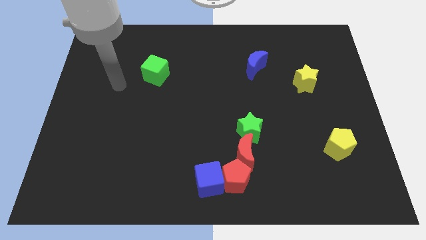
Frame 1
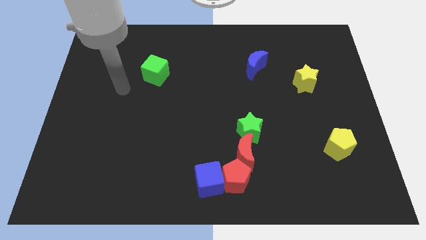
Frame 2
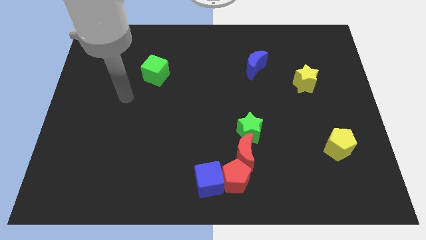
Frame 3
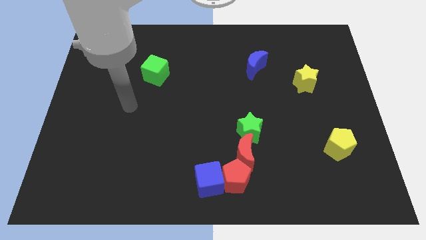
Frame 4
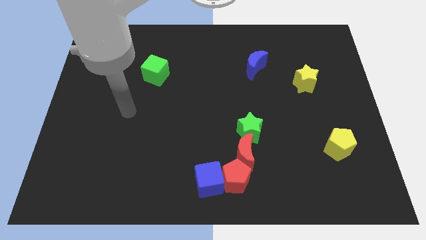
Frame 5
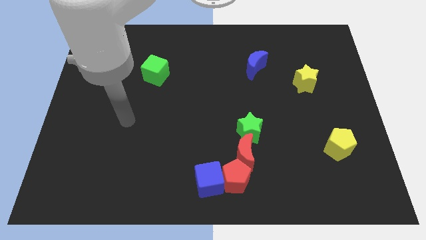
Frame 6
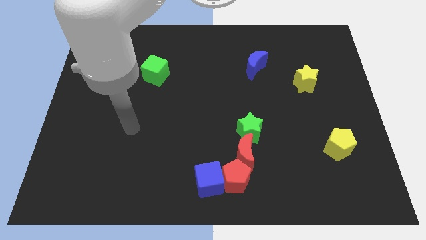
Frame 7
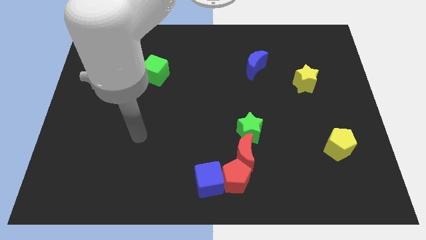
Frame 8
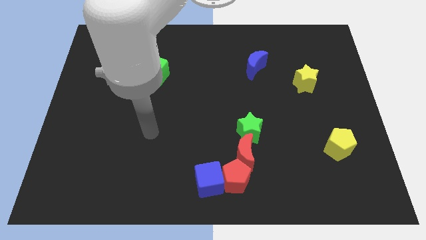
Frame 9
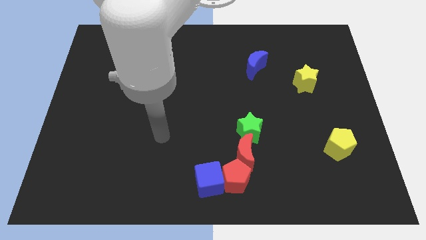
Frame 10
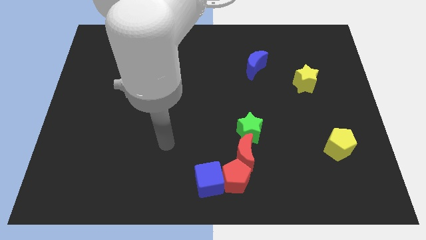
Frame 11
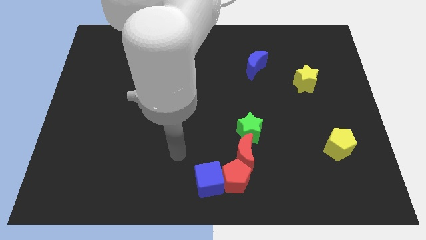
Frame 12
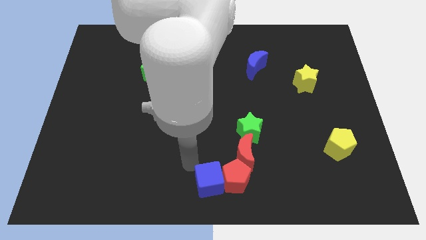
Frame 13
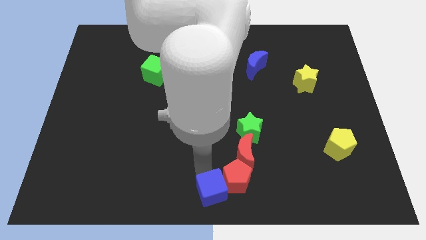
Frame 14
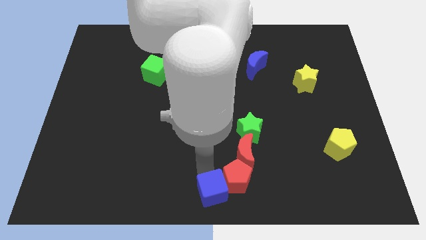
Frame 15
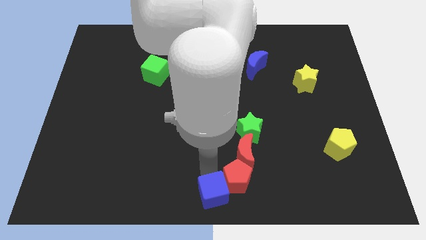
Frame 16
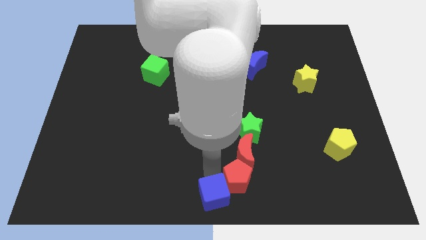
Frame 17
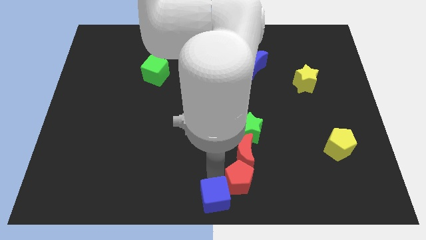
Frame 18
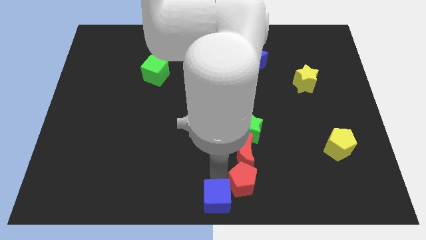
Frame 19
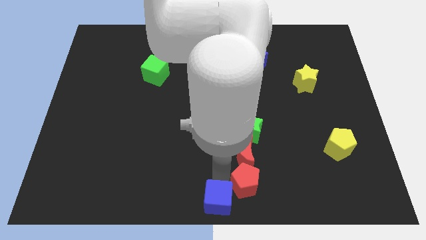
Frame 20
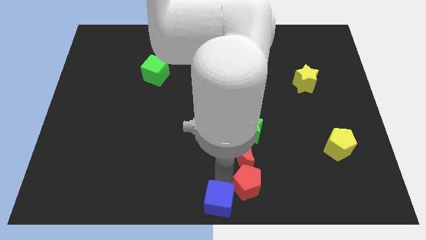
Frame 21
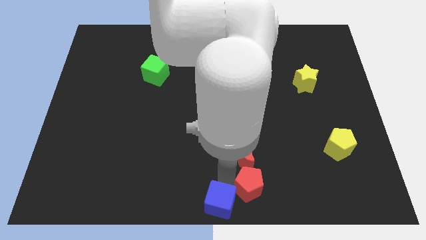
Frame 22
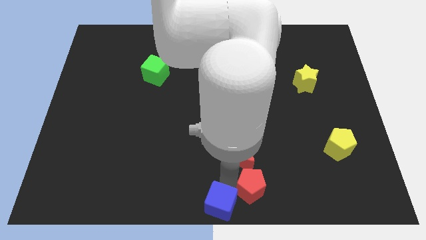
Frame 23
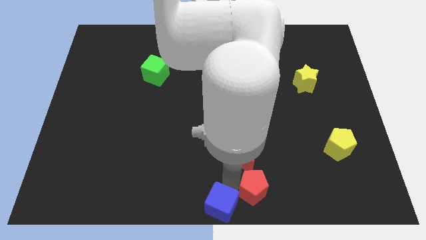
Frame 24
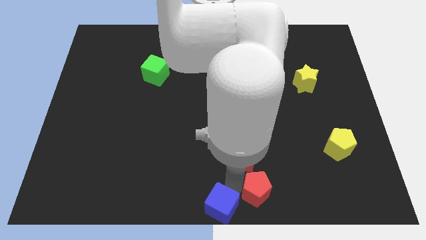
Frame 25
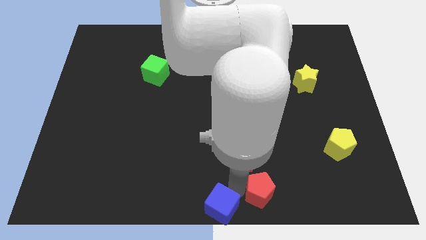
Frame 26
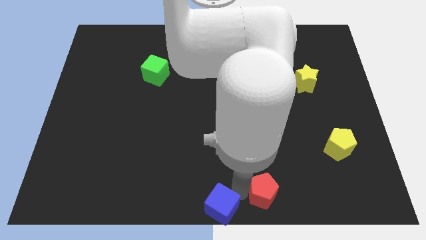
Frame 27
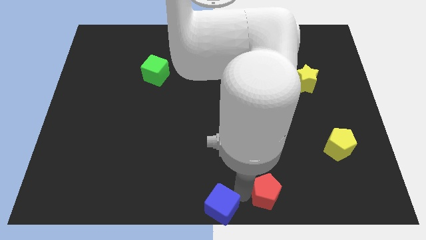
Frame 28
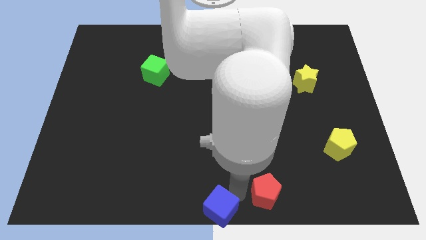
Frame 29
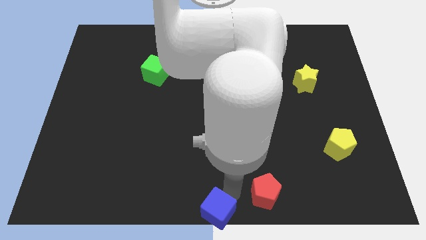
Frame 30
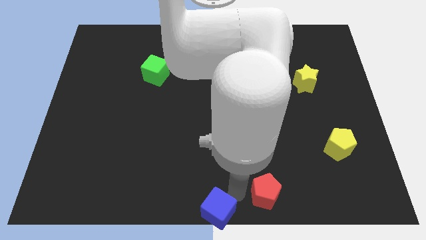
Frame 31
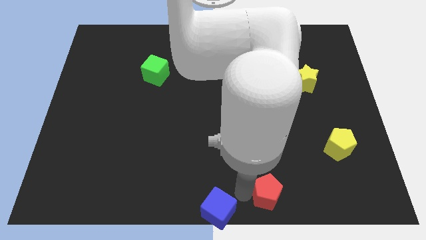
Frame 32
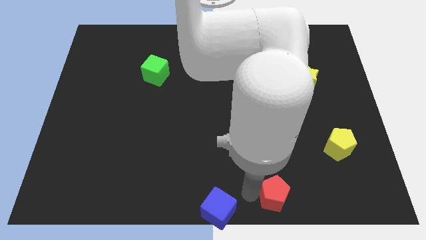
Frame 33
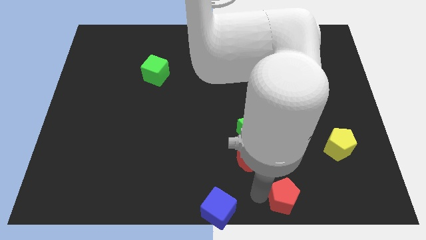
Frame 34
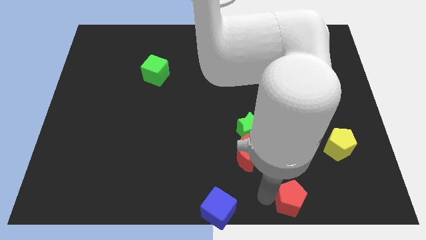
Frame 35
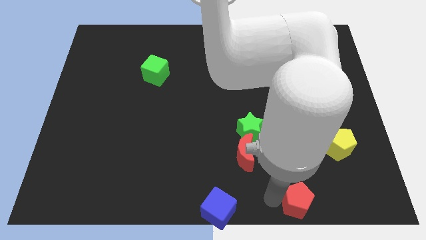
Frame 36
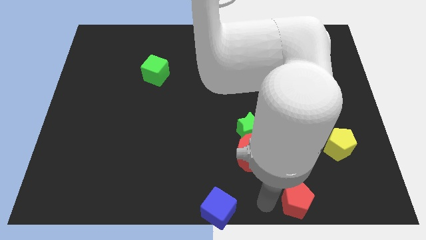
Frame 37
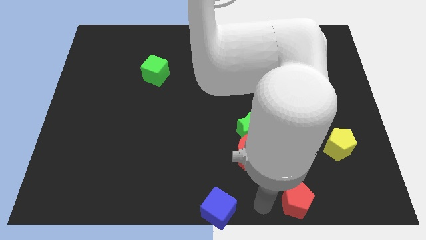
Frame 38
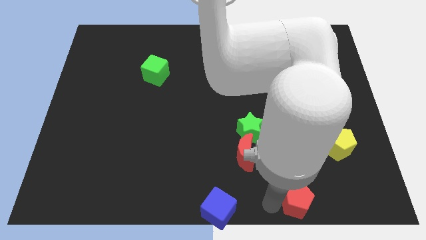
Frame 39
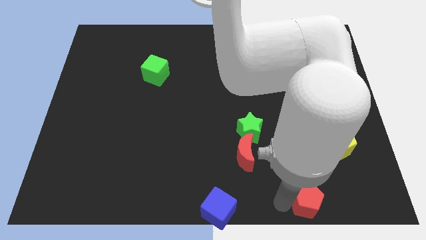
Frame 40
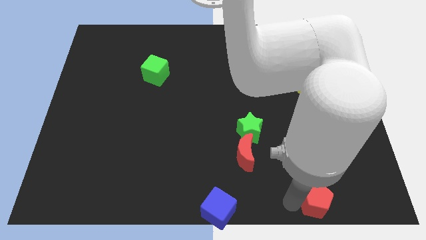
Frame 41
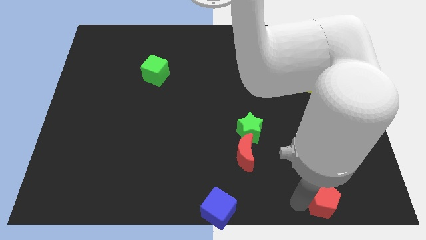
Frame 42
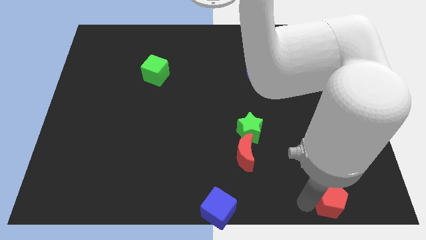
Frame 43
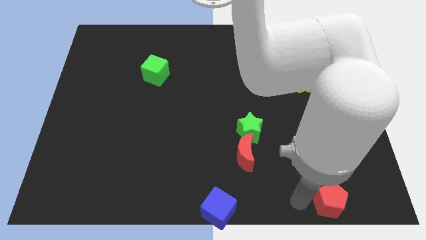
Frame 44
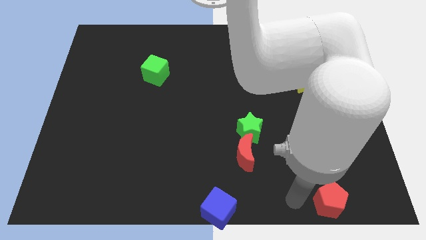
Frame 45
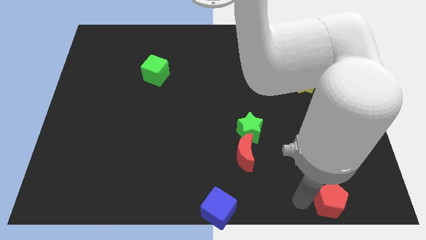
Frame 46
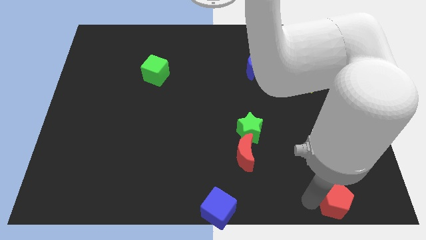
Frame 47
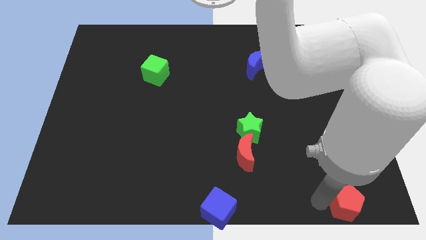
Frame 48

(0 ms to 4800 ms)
push the red pentagon to the lower right corner

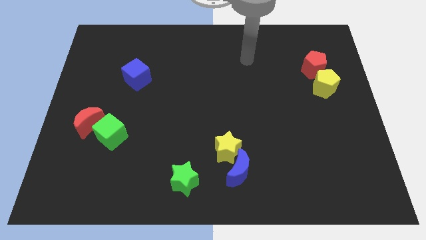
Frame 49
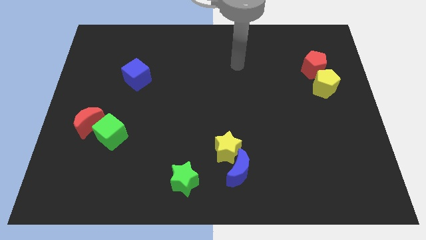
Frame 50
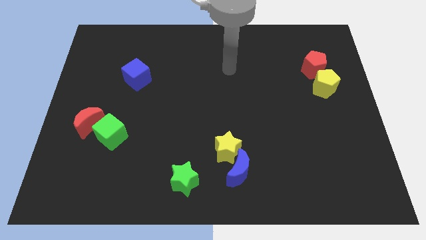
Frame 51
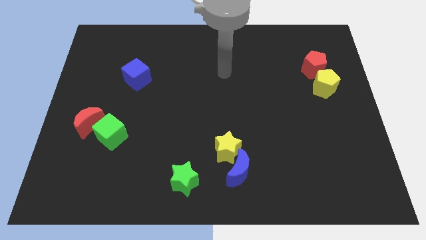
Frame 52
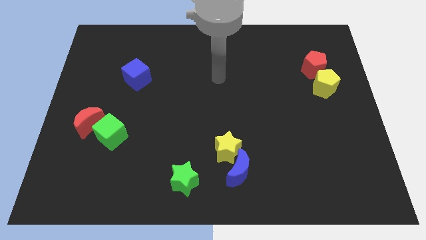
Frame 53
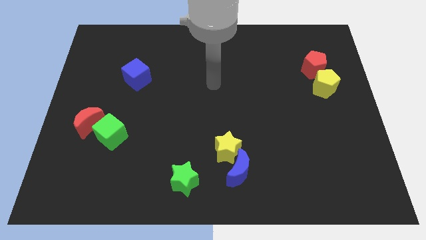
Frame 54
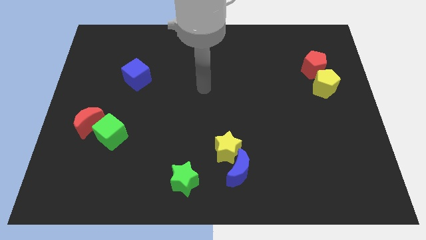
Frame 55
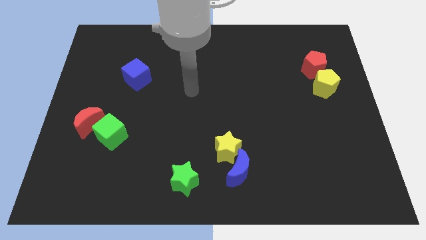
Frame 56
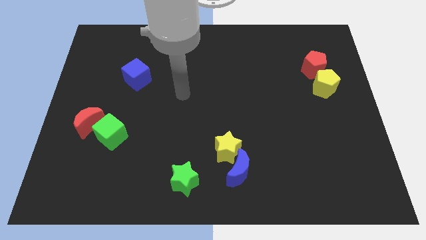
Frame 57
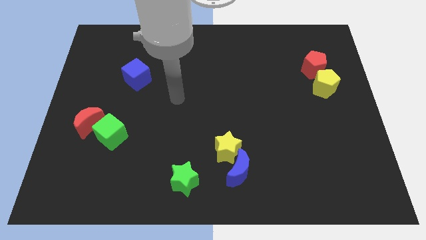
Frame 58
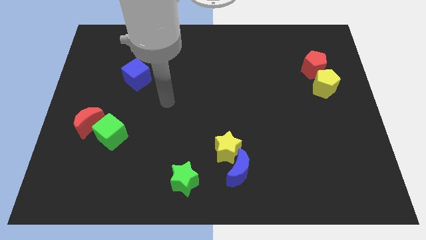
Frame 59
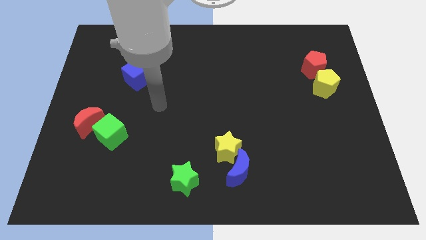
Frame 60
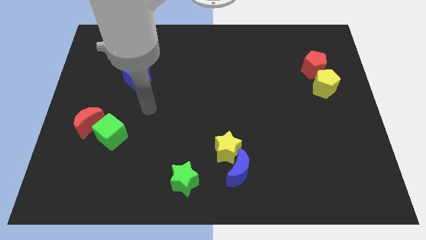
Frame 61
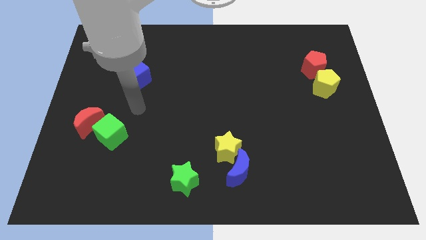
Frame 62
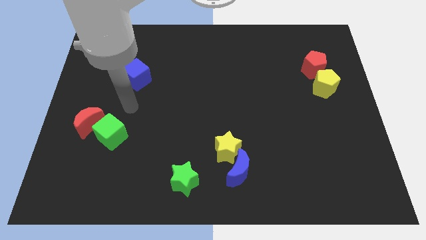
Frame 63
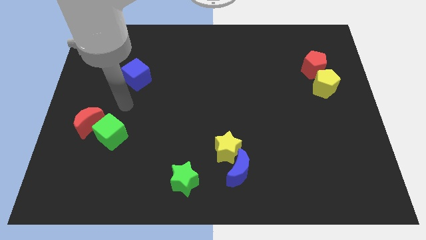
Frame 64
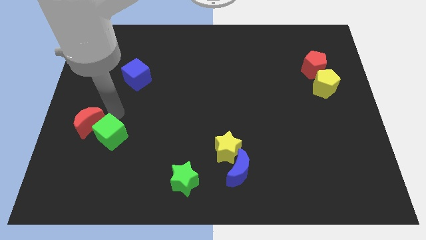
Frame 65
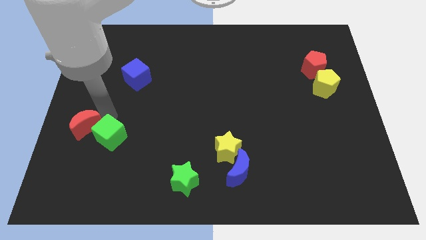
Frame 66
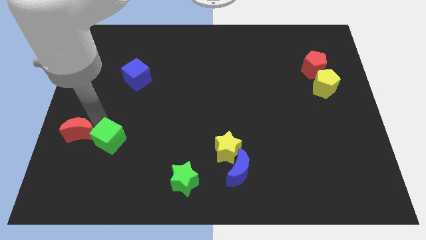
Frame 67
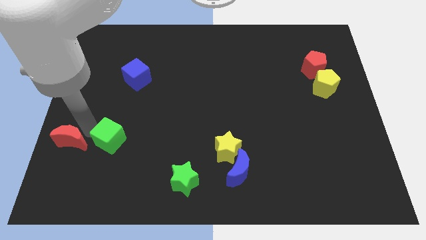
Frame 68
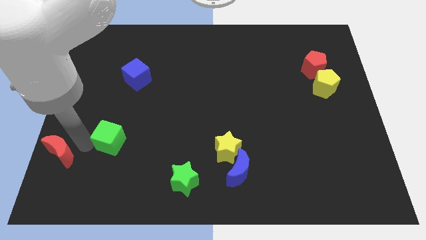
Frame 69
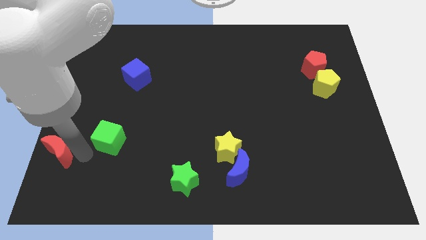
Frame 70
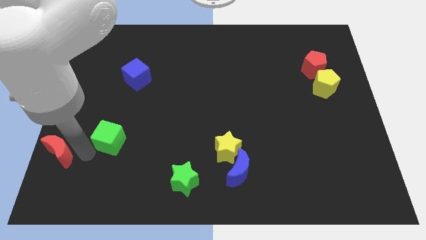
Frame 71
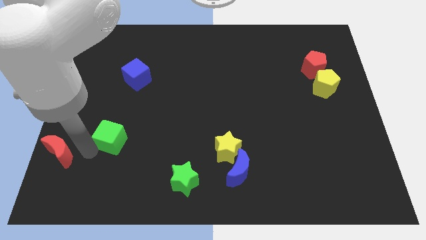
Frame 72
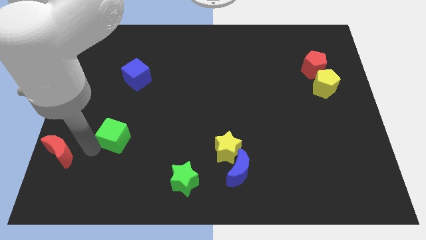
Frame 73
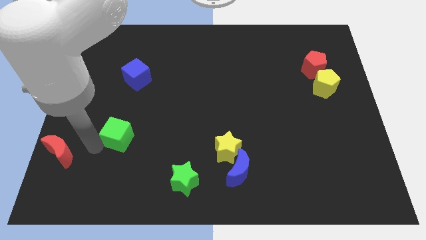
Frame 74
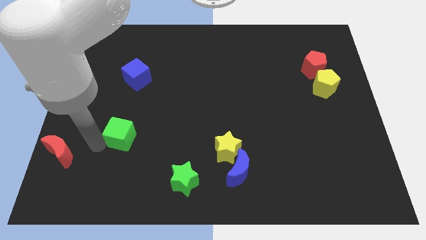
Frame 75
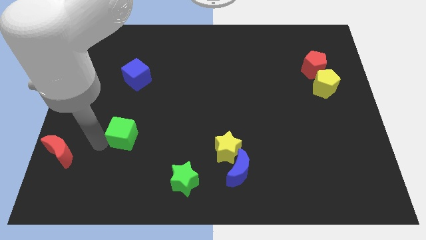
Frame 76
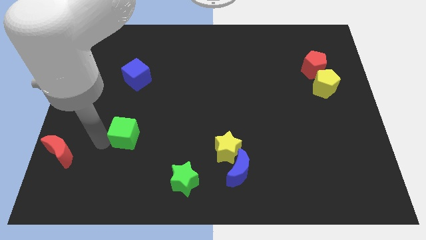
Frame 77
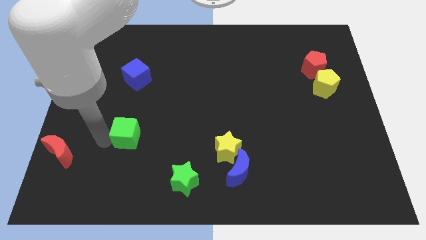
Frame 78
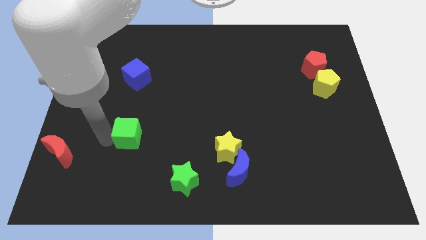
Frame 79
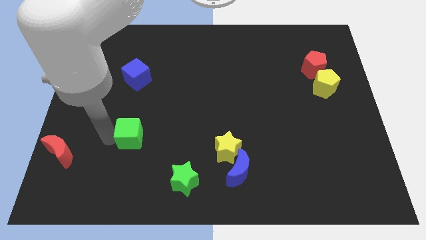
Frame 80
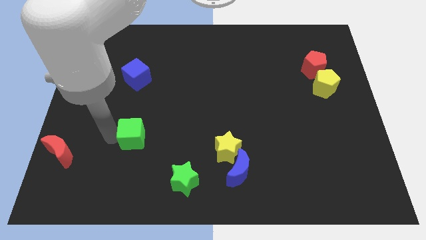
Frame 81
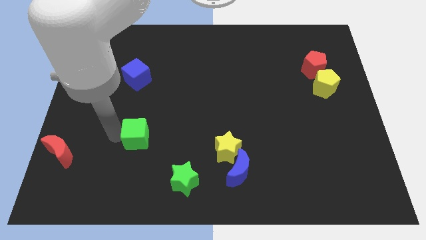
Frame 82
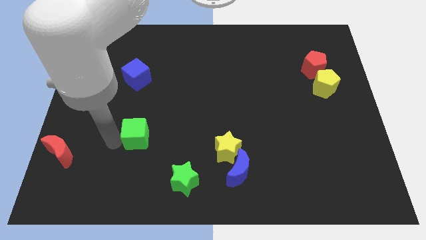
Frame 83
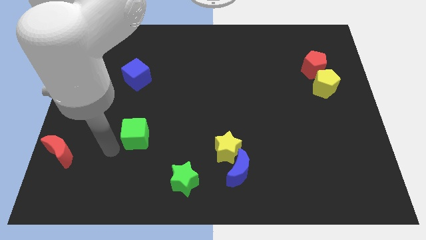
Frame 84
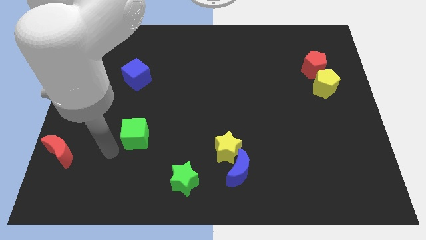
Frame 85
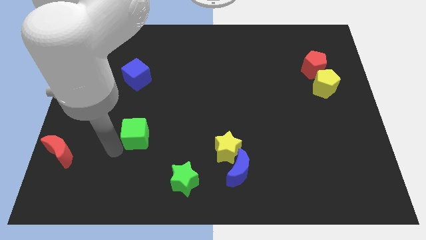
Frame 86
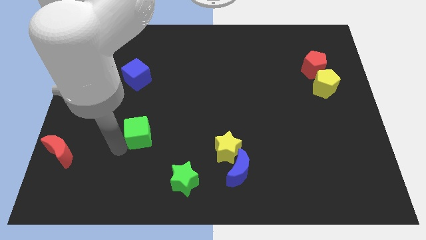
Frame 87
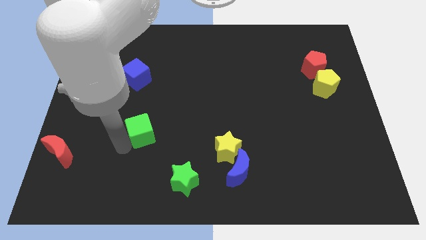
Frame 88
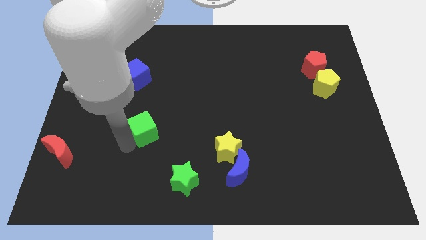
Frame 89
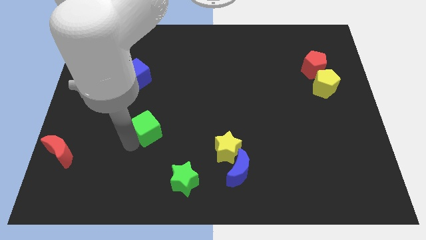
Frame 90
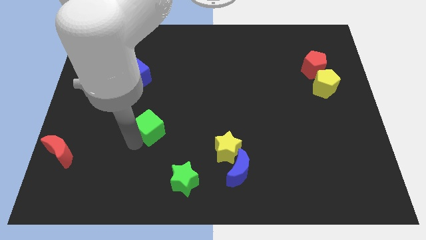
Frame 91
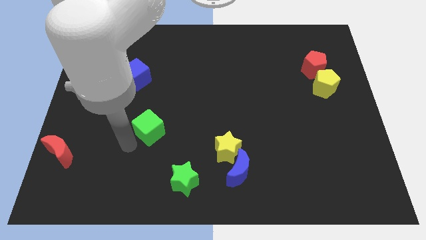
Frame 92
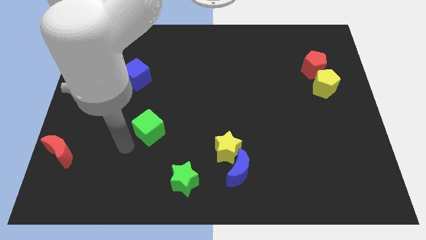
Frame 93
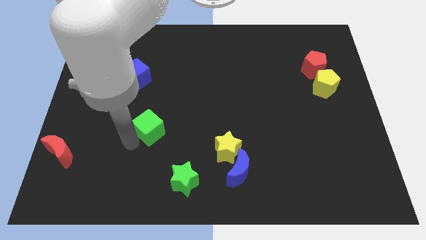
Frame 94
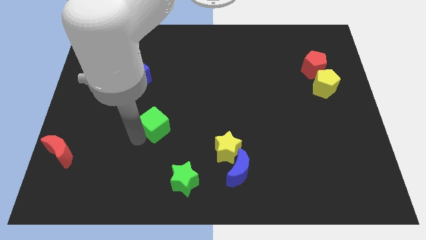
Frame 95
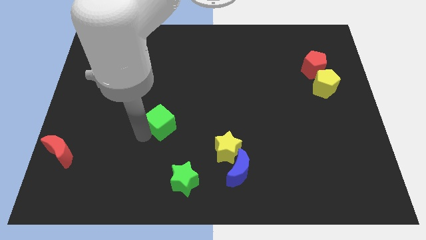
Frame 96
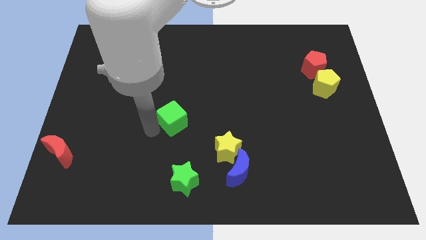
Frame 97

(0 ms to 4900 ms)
push the green cube to the middle
